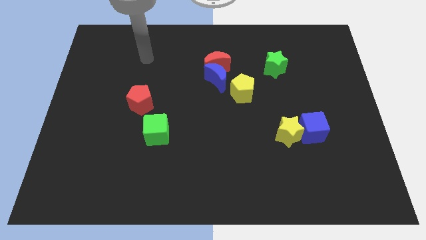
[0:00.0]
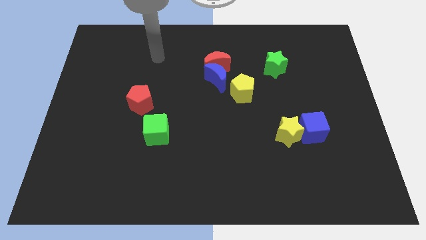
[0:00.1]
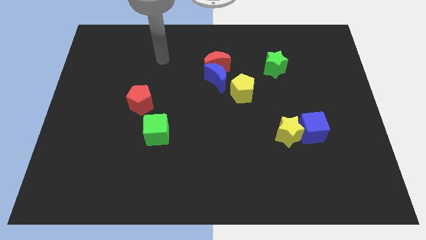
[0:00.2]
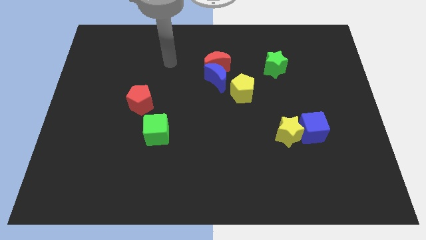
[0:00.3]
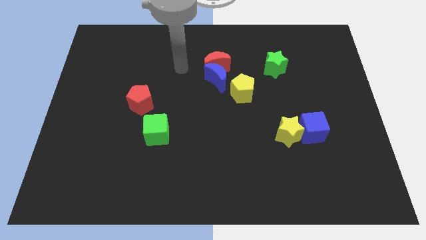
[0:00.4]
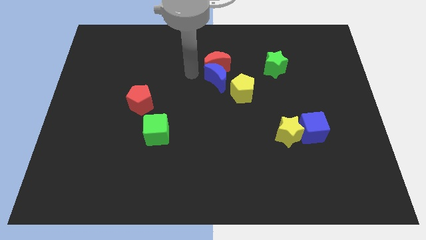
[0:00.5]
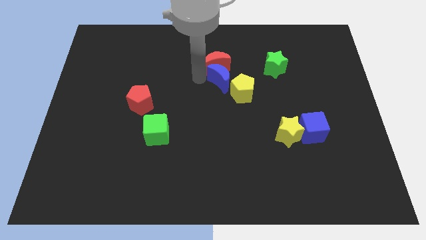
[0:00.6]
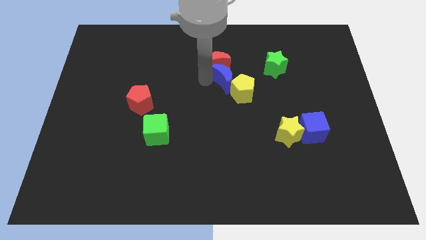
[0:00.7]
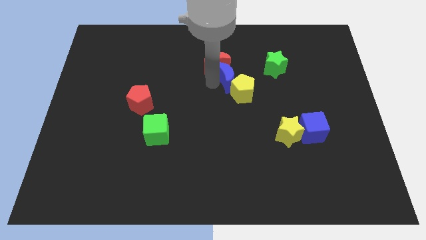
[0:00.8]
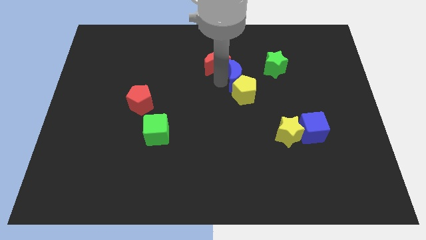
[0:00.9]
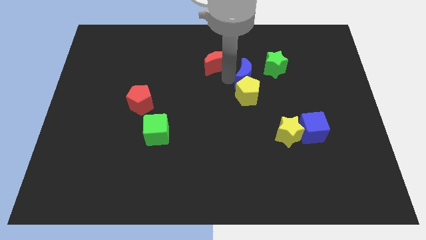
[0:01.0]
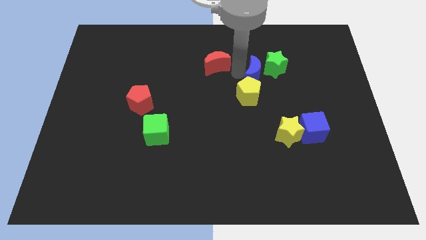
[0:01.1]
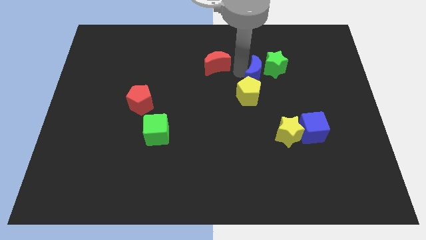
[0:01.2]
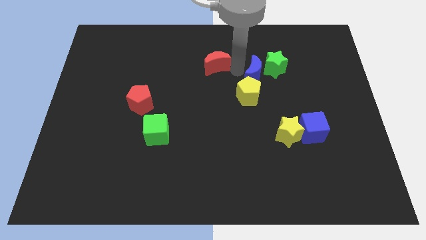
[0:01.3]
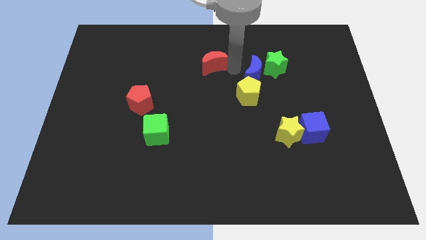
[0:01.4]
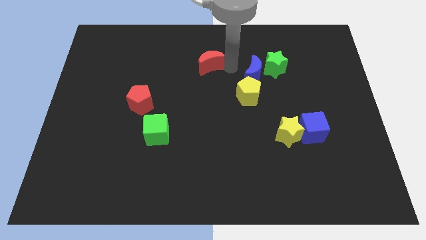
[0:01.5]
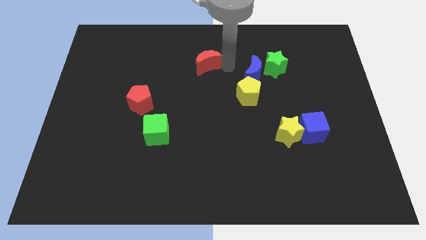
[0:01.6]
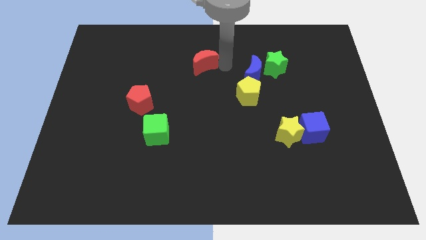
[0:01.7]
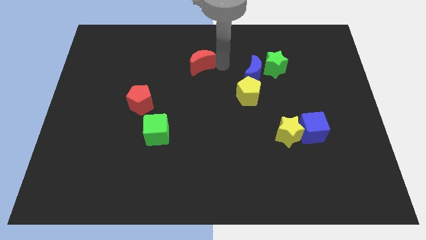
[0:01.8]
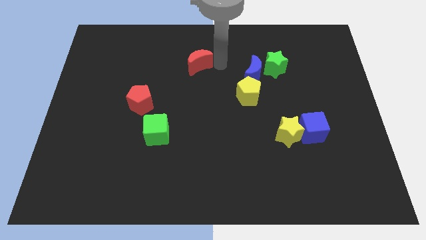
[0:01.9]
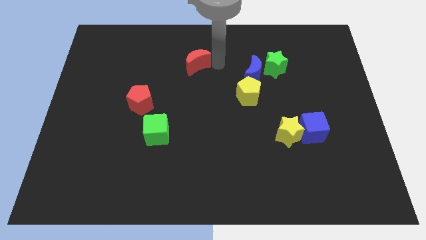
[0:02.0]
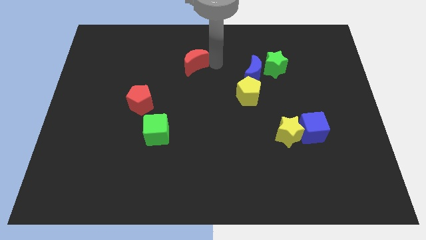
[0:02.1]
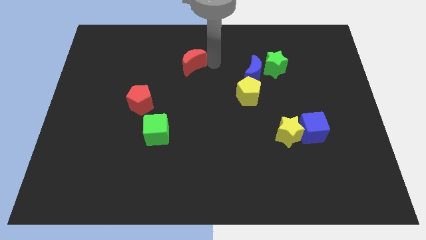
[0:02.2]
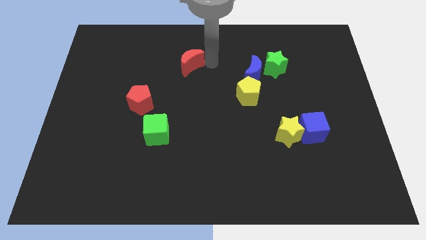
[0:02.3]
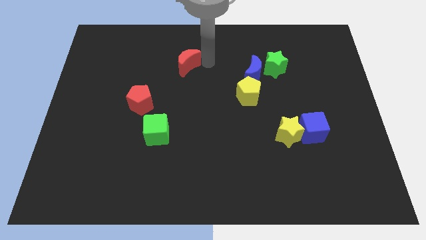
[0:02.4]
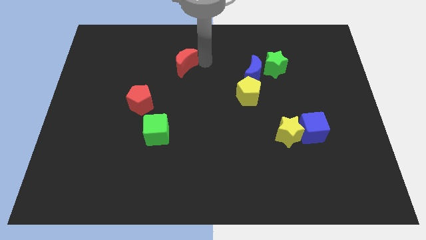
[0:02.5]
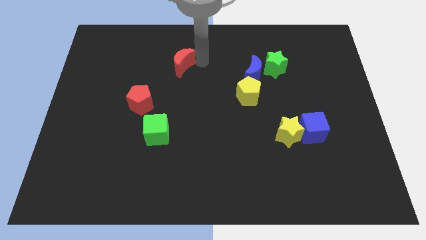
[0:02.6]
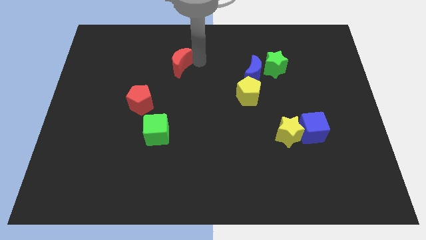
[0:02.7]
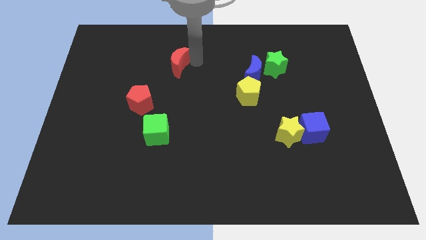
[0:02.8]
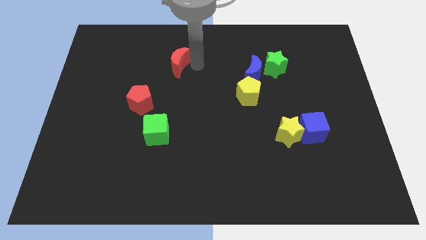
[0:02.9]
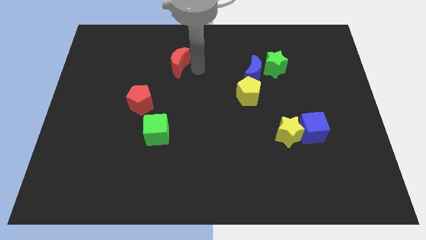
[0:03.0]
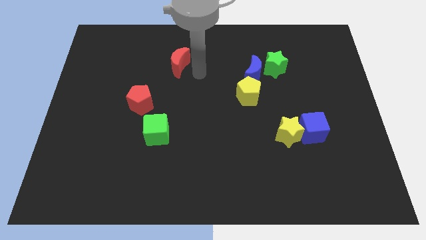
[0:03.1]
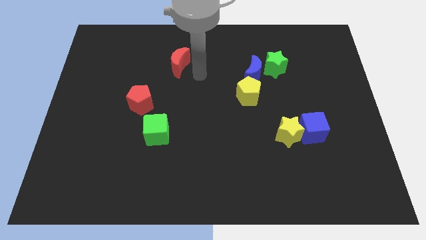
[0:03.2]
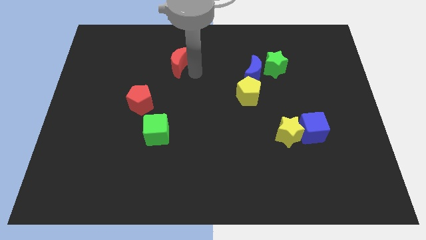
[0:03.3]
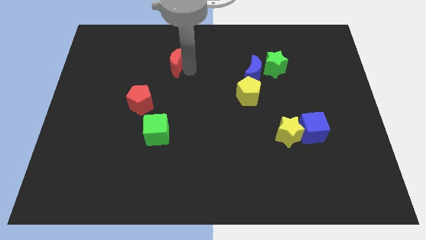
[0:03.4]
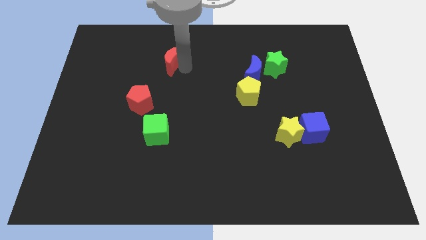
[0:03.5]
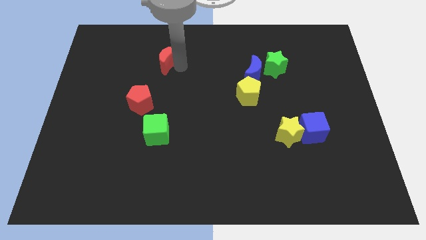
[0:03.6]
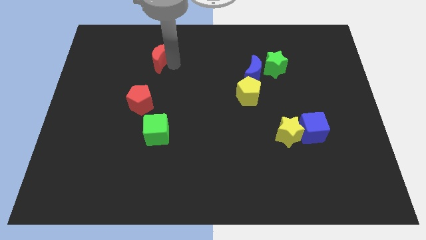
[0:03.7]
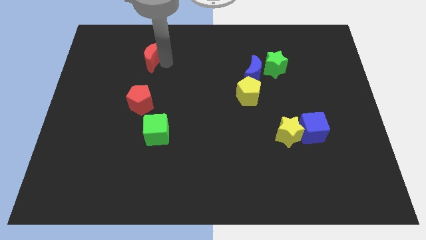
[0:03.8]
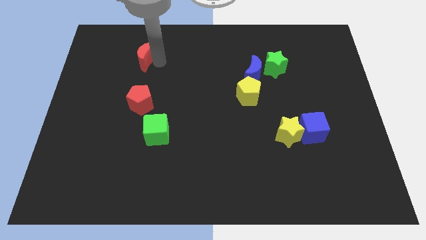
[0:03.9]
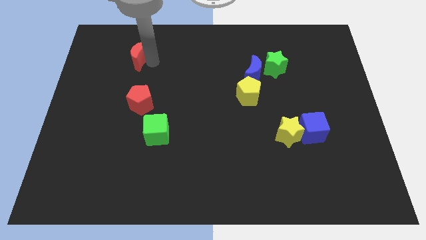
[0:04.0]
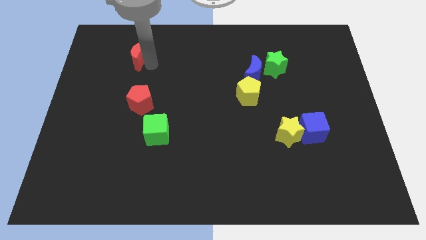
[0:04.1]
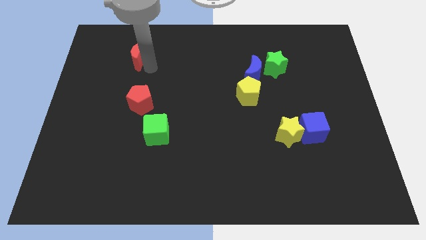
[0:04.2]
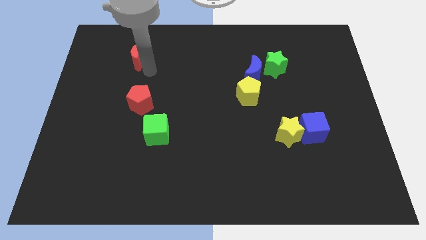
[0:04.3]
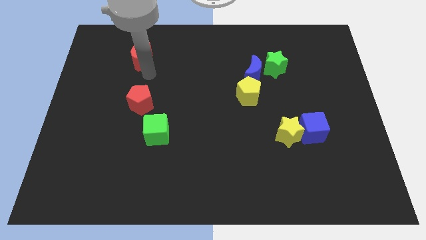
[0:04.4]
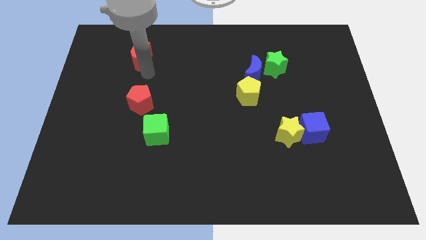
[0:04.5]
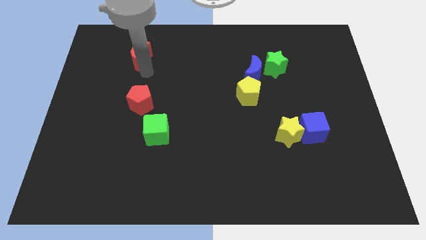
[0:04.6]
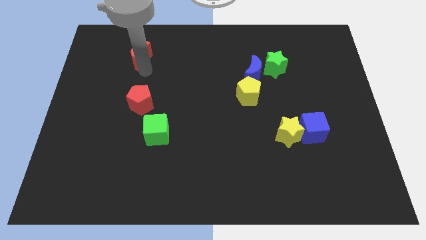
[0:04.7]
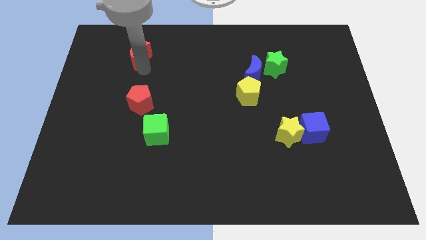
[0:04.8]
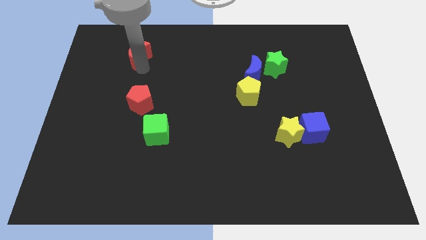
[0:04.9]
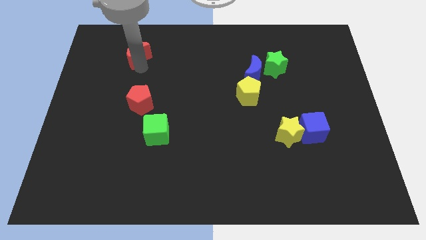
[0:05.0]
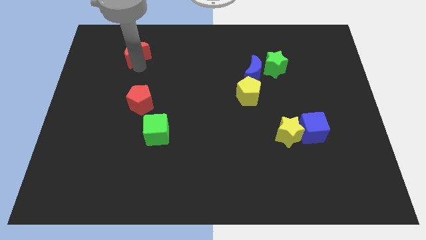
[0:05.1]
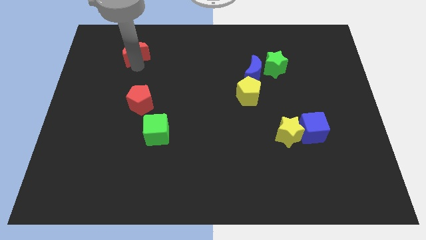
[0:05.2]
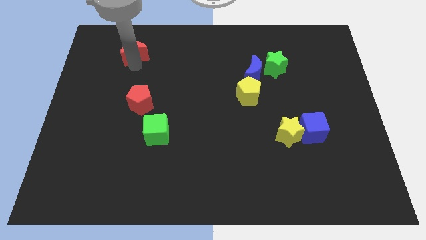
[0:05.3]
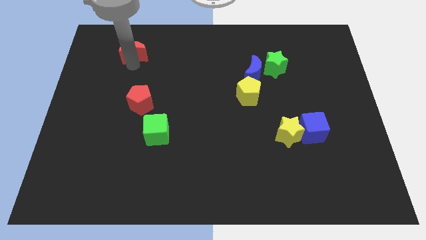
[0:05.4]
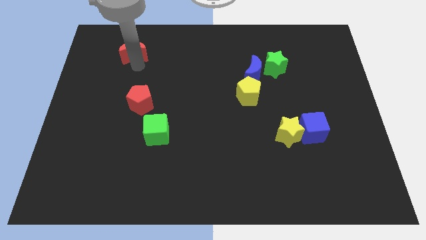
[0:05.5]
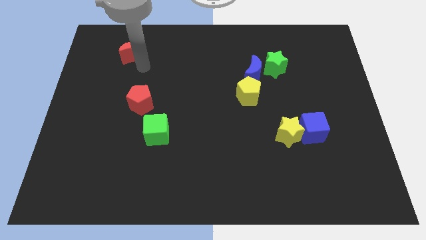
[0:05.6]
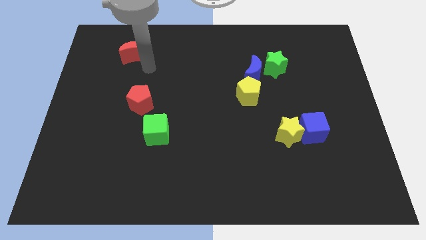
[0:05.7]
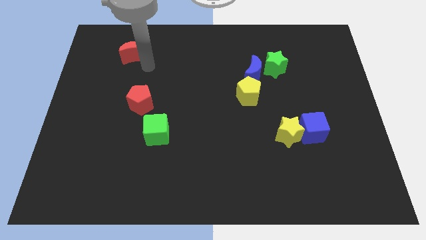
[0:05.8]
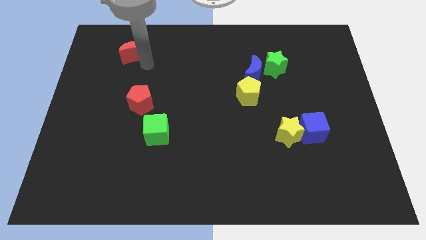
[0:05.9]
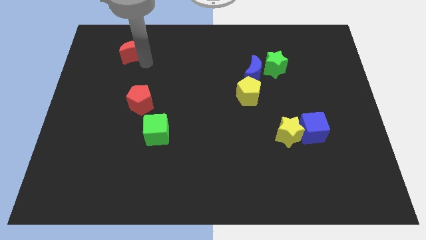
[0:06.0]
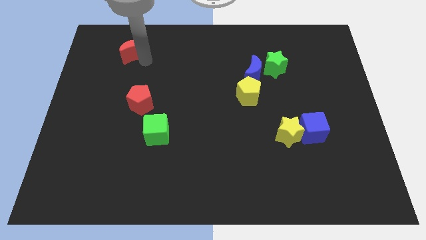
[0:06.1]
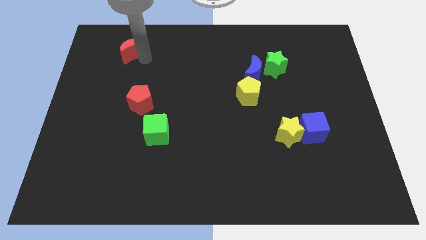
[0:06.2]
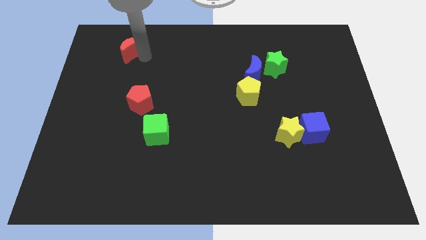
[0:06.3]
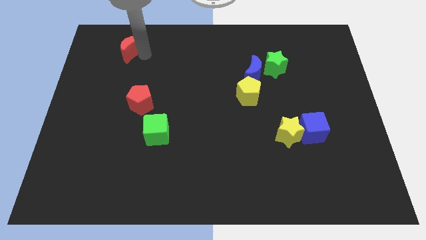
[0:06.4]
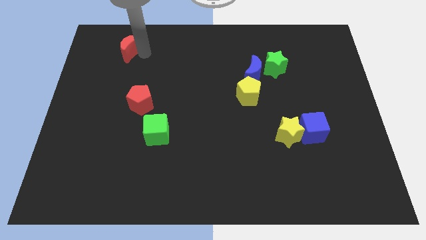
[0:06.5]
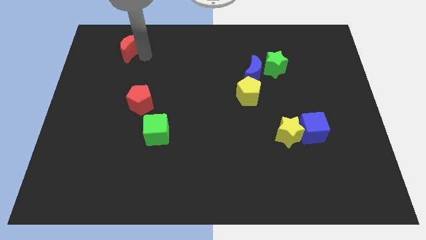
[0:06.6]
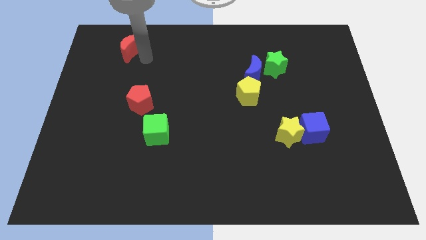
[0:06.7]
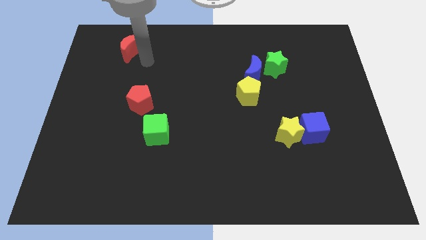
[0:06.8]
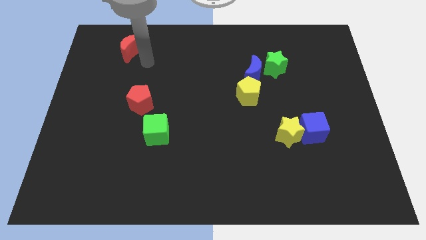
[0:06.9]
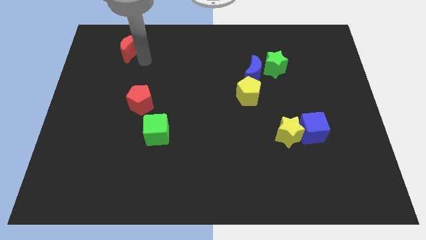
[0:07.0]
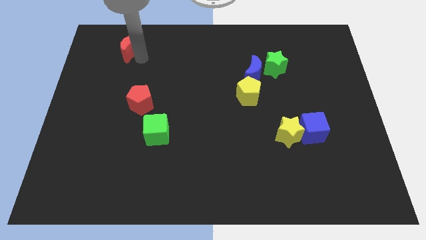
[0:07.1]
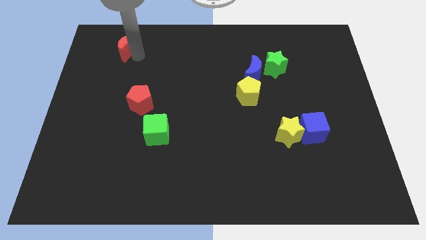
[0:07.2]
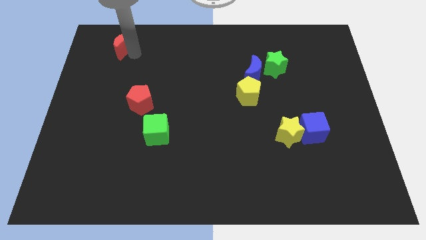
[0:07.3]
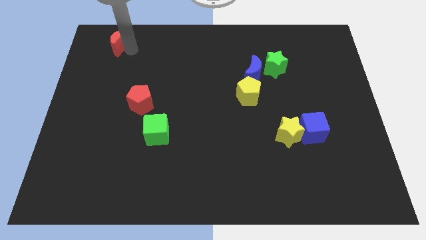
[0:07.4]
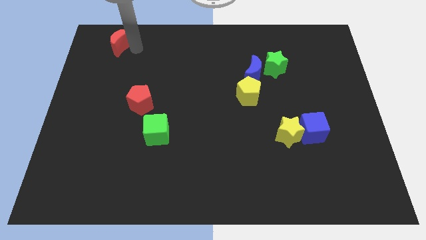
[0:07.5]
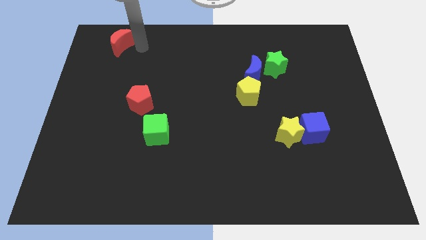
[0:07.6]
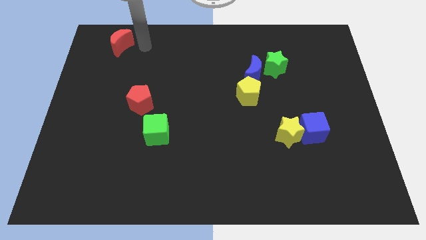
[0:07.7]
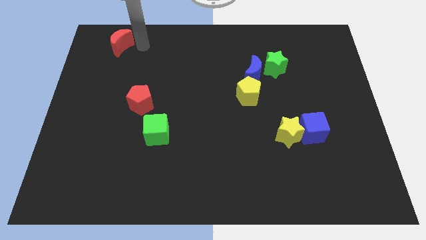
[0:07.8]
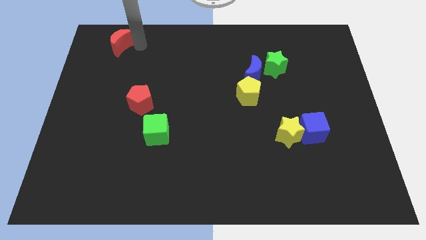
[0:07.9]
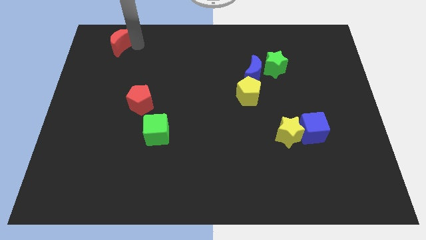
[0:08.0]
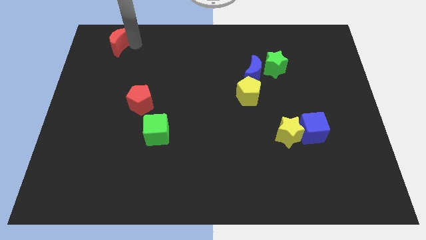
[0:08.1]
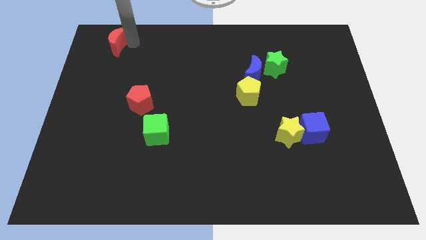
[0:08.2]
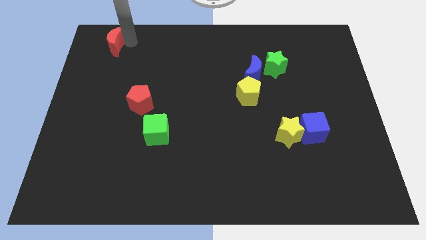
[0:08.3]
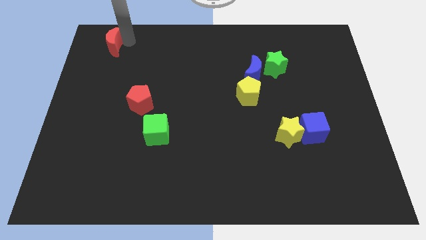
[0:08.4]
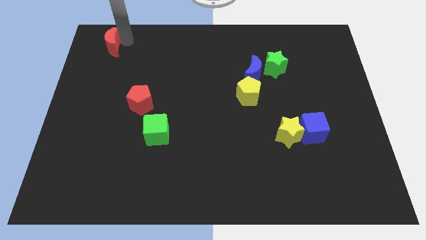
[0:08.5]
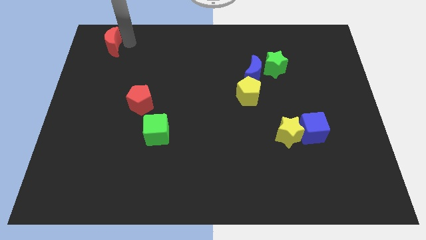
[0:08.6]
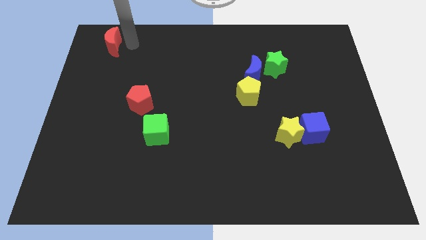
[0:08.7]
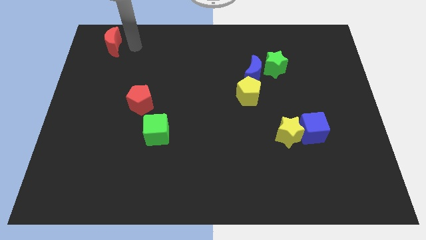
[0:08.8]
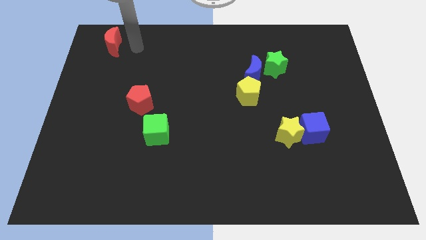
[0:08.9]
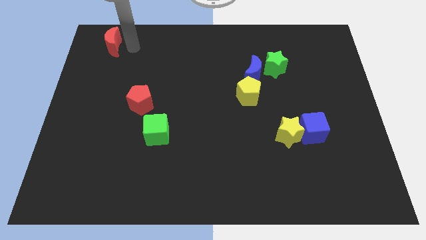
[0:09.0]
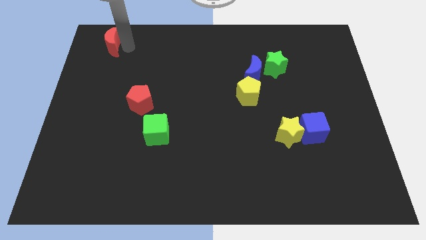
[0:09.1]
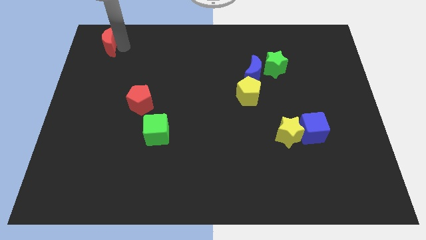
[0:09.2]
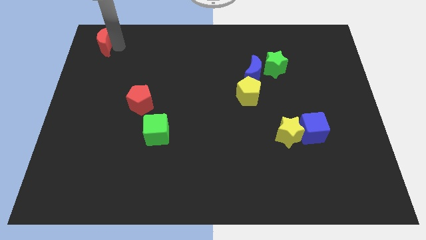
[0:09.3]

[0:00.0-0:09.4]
push the red moon to the top left corner
